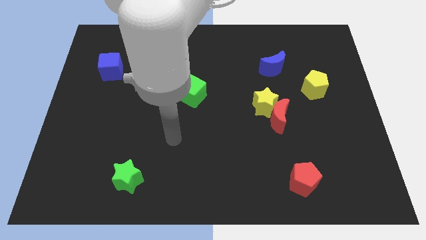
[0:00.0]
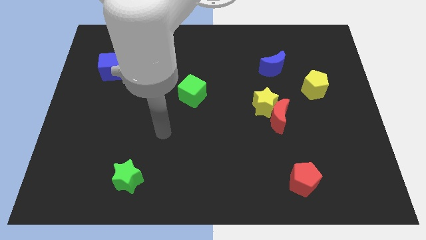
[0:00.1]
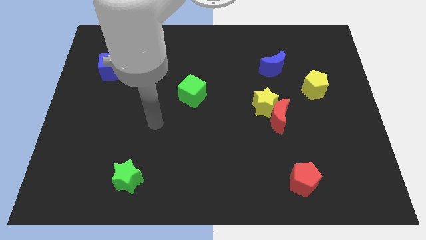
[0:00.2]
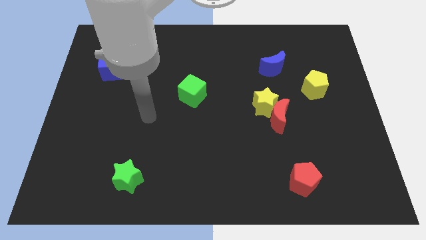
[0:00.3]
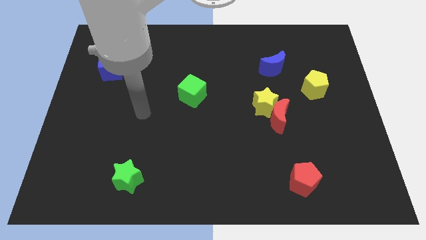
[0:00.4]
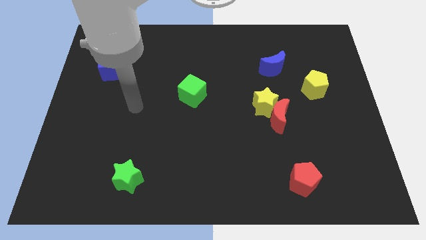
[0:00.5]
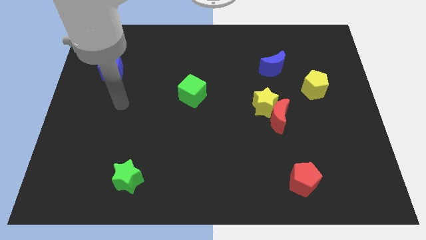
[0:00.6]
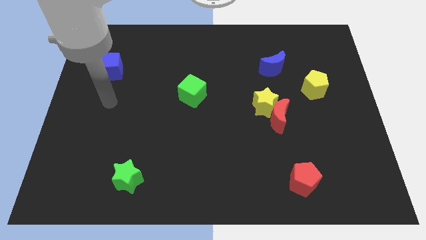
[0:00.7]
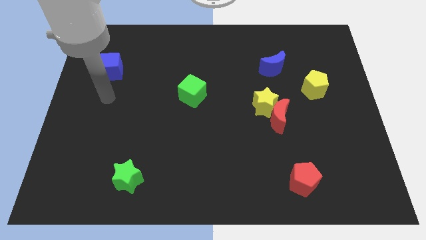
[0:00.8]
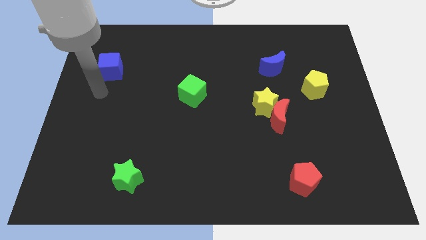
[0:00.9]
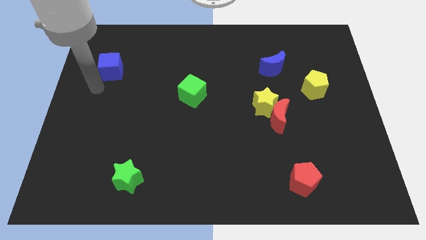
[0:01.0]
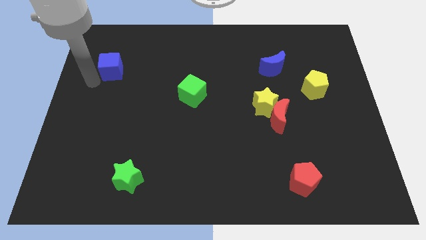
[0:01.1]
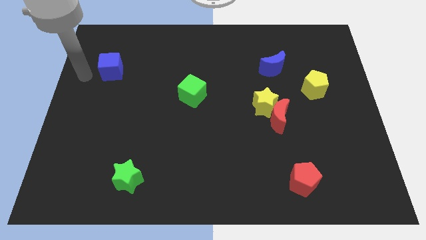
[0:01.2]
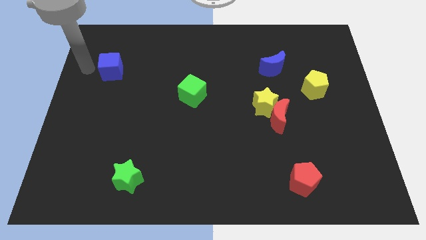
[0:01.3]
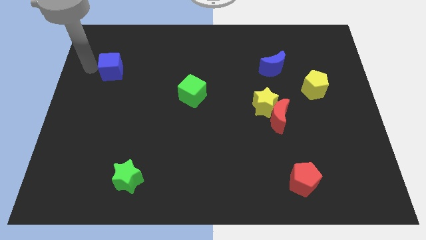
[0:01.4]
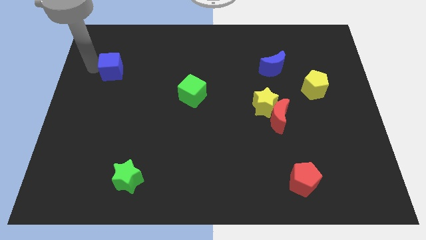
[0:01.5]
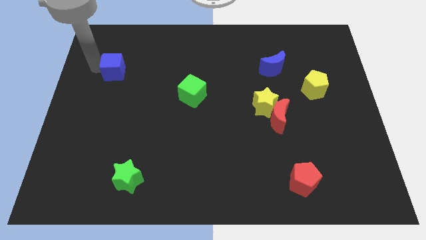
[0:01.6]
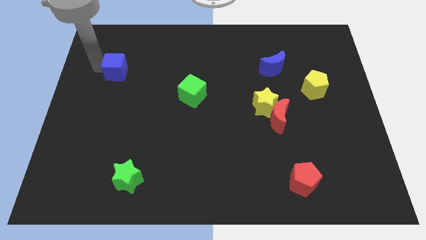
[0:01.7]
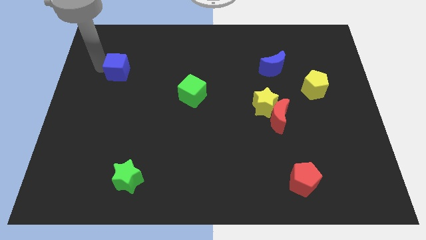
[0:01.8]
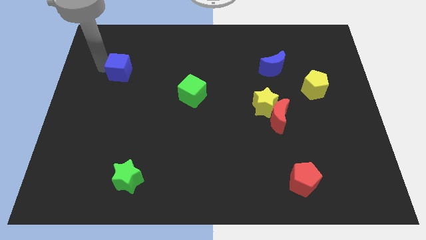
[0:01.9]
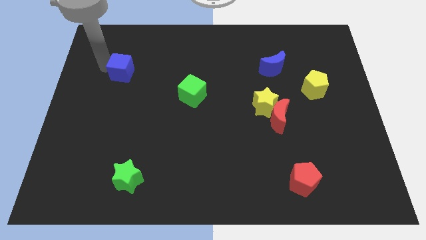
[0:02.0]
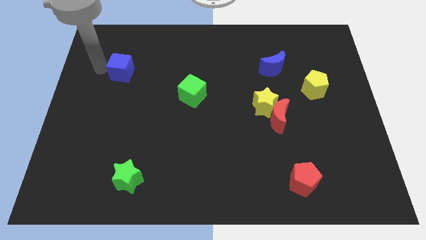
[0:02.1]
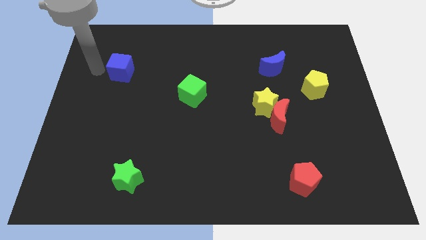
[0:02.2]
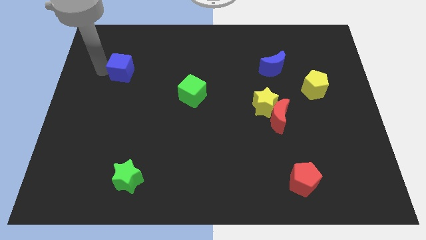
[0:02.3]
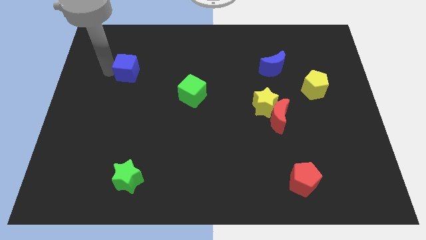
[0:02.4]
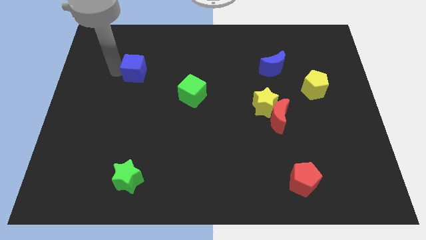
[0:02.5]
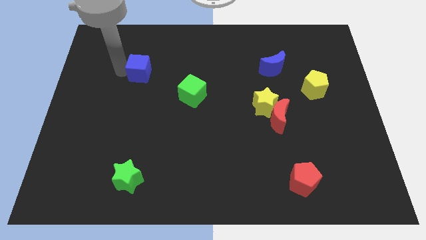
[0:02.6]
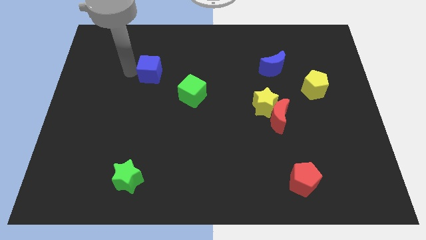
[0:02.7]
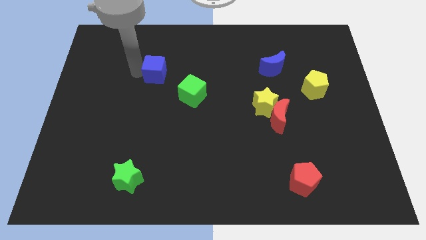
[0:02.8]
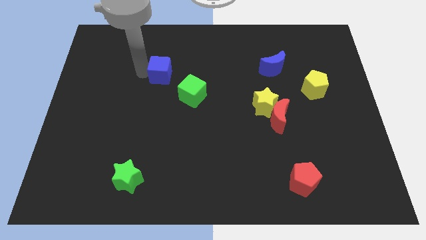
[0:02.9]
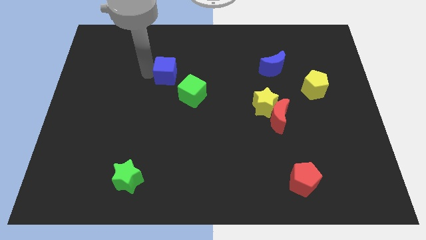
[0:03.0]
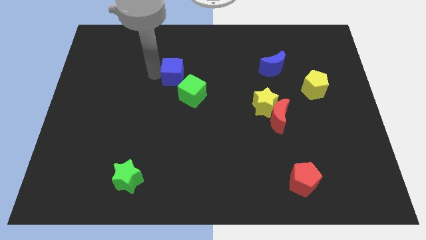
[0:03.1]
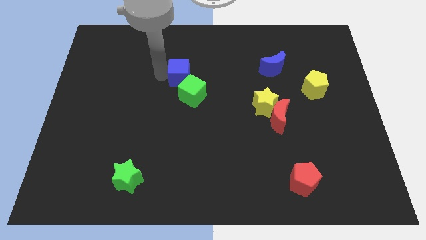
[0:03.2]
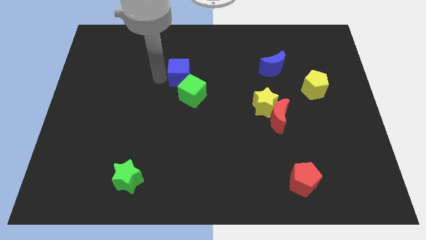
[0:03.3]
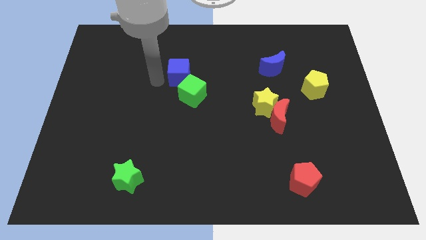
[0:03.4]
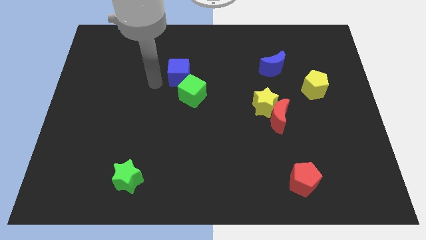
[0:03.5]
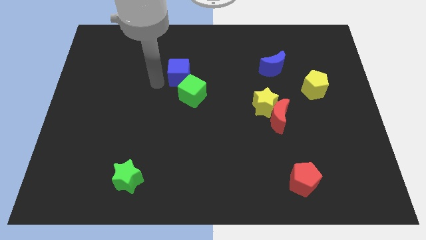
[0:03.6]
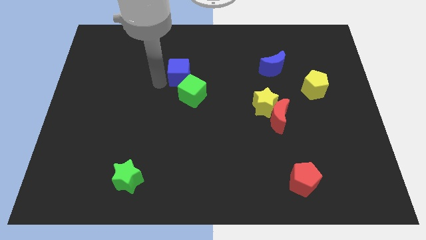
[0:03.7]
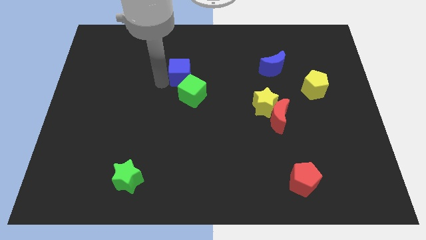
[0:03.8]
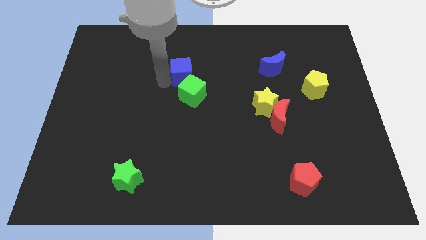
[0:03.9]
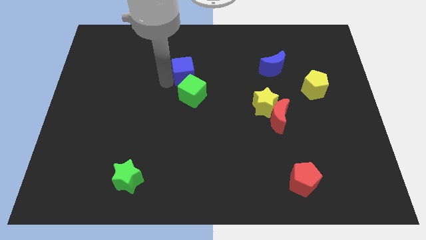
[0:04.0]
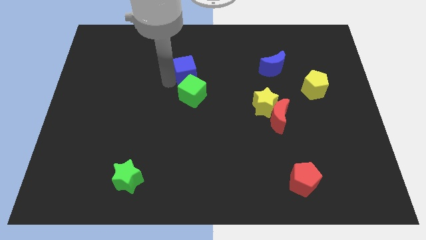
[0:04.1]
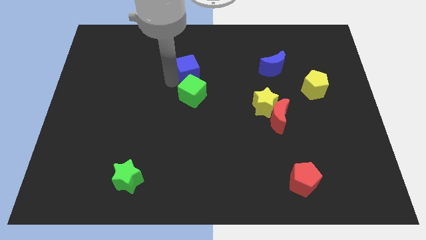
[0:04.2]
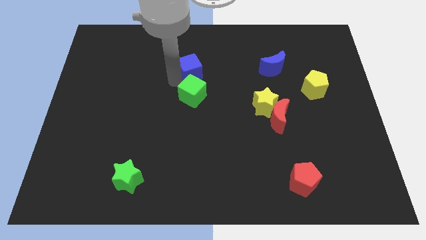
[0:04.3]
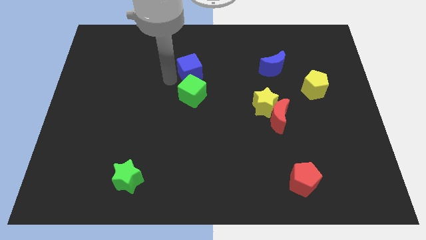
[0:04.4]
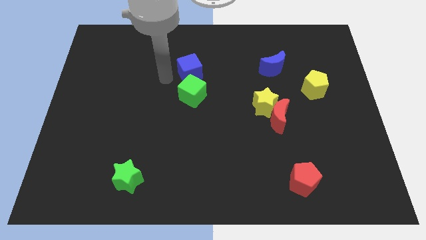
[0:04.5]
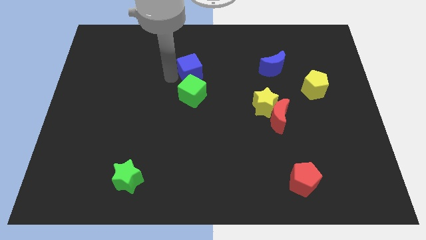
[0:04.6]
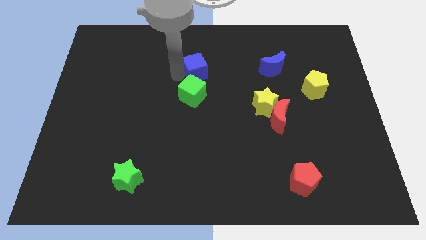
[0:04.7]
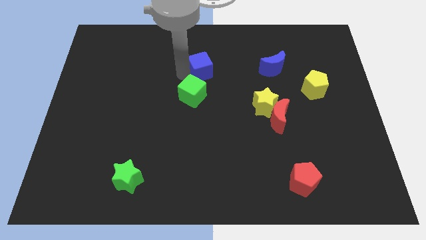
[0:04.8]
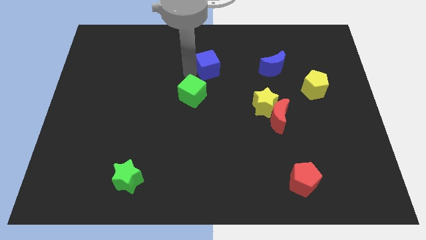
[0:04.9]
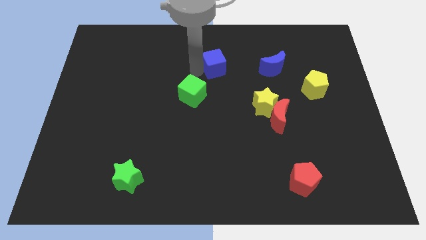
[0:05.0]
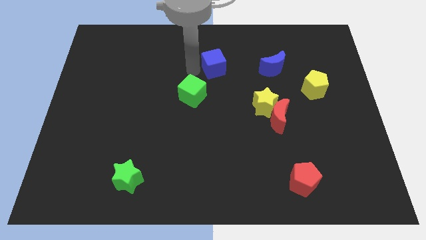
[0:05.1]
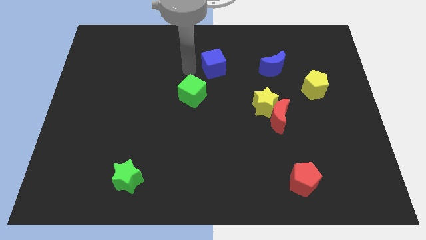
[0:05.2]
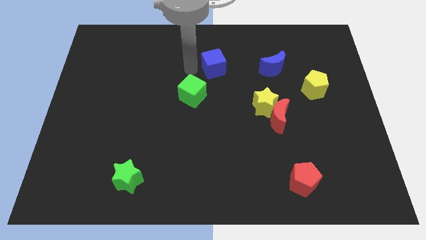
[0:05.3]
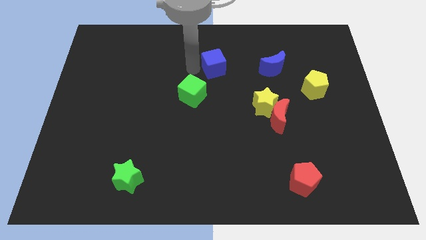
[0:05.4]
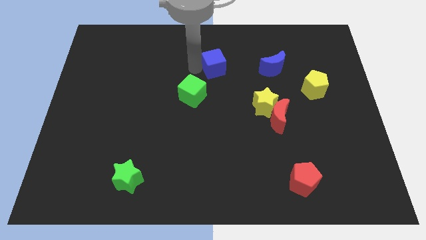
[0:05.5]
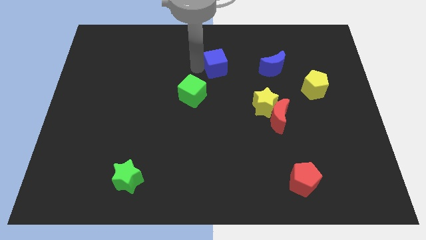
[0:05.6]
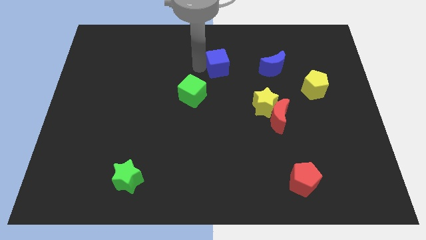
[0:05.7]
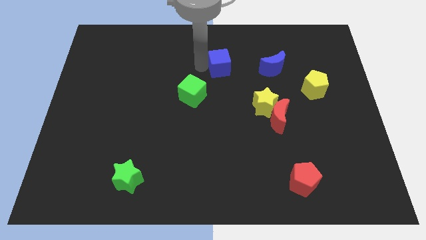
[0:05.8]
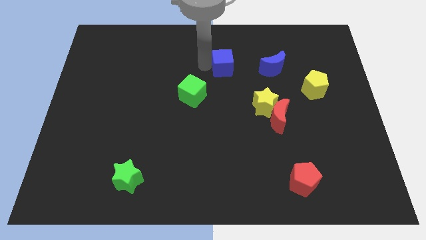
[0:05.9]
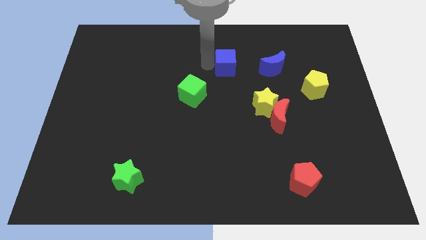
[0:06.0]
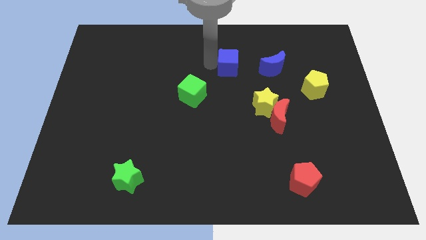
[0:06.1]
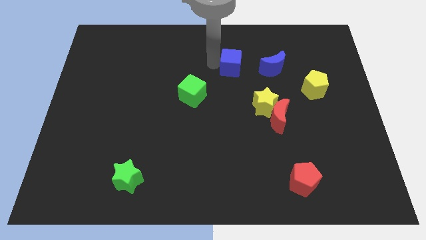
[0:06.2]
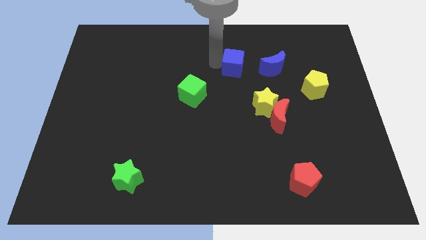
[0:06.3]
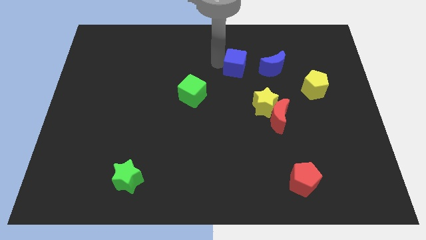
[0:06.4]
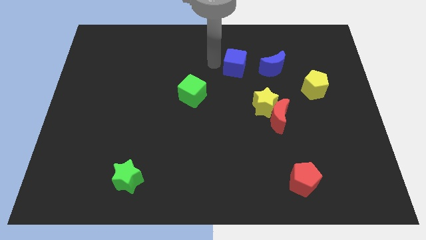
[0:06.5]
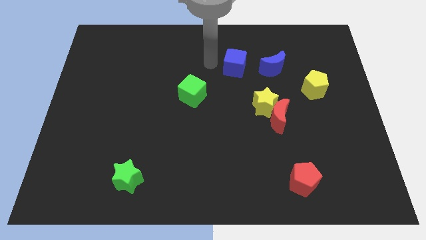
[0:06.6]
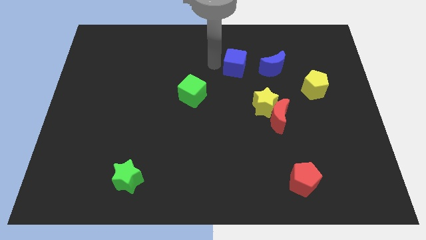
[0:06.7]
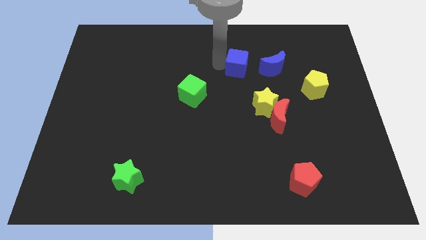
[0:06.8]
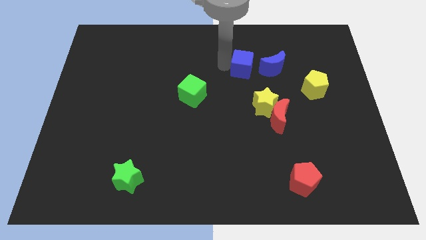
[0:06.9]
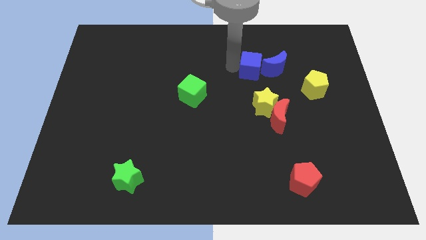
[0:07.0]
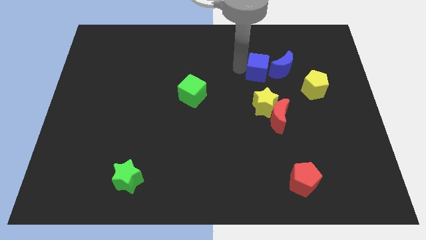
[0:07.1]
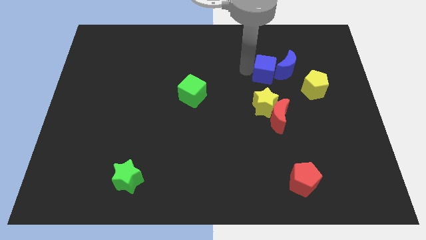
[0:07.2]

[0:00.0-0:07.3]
push the blue cube to the blue moon
